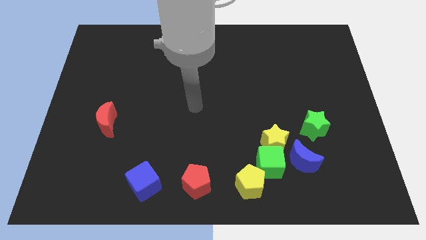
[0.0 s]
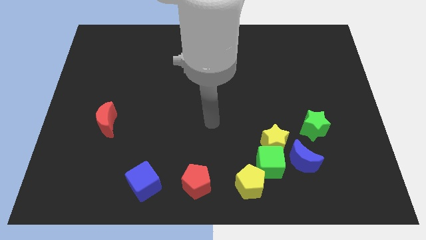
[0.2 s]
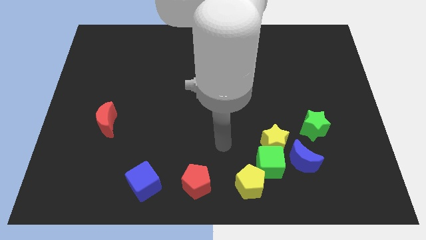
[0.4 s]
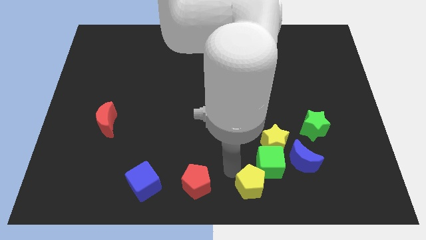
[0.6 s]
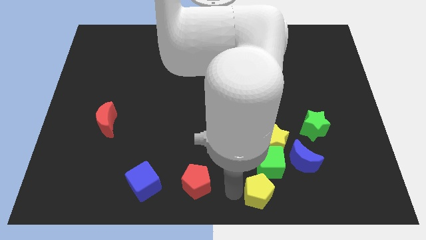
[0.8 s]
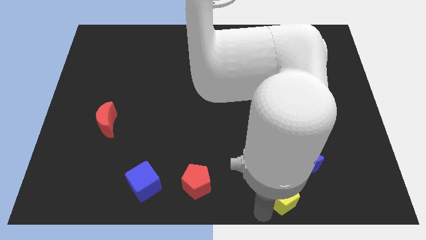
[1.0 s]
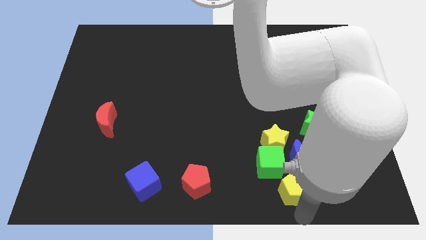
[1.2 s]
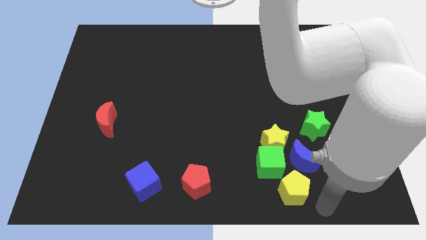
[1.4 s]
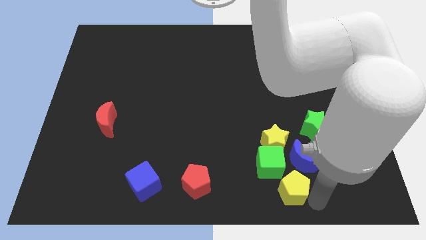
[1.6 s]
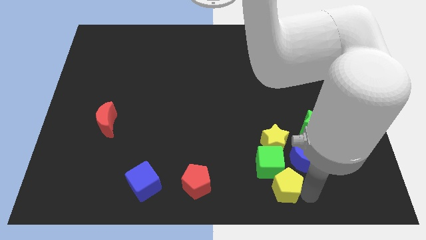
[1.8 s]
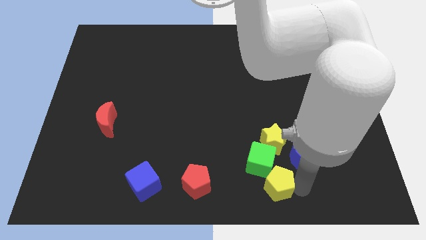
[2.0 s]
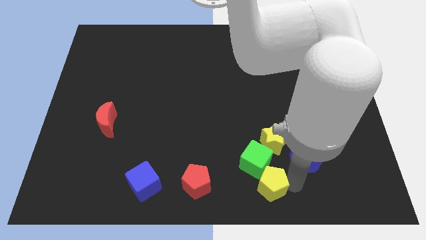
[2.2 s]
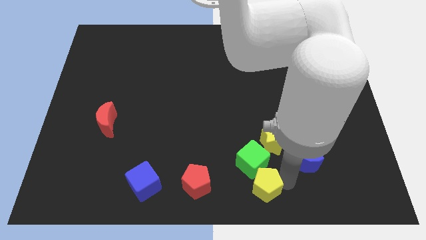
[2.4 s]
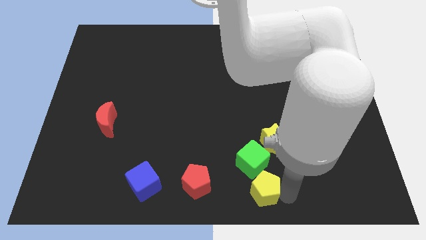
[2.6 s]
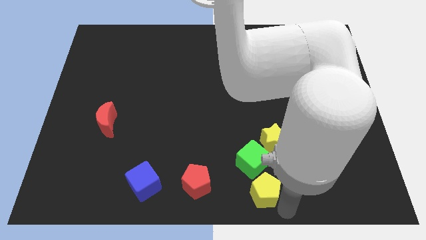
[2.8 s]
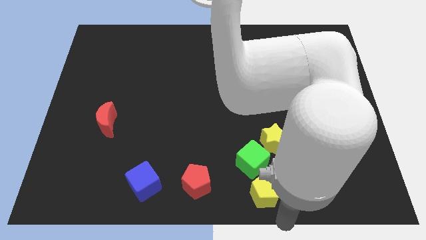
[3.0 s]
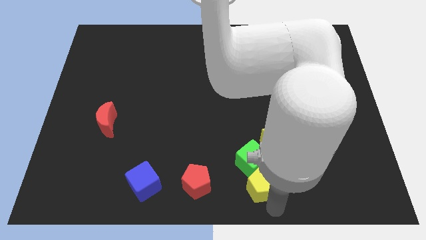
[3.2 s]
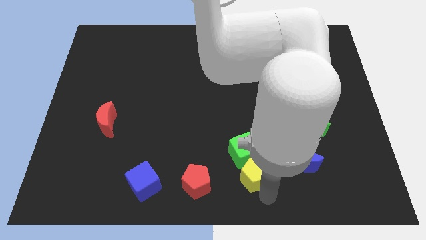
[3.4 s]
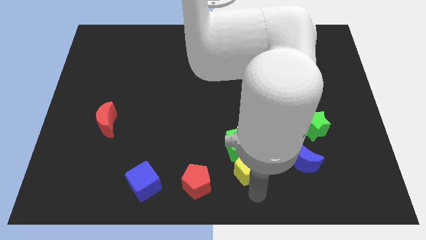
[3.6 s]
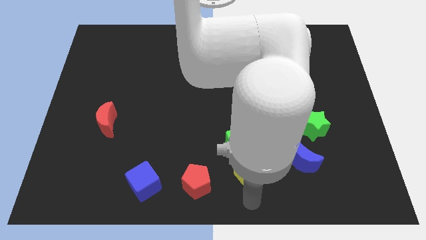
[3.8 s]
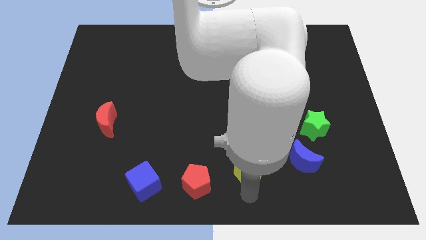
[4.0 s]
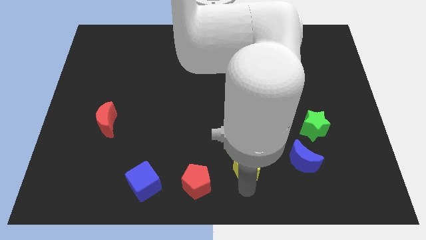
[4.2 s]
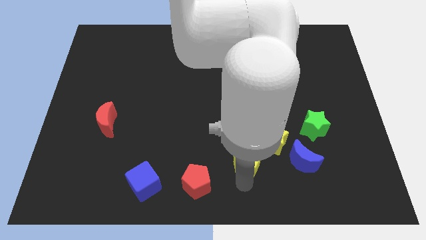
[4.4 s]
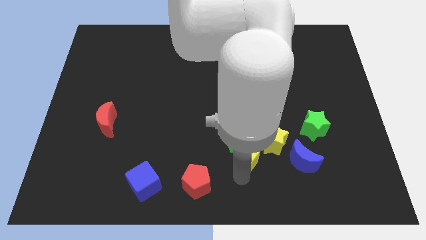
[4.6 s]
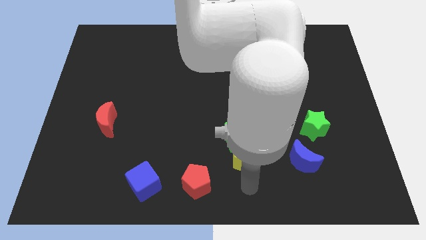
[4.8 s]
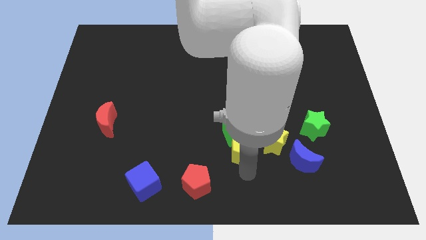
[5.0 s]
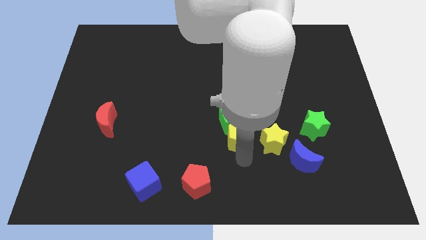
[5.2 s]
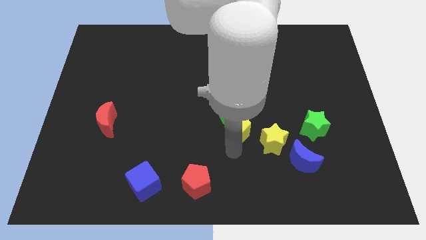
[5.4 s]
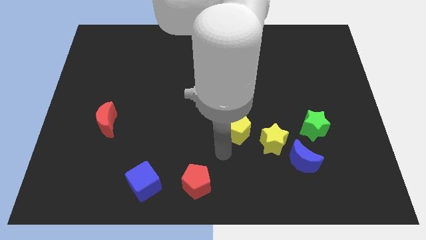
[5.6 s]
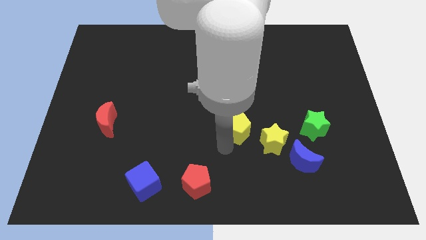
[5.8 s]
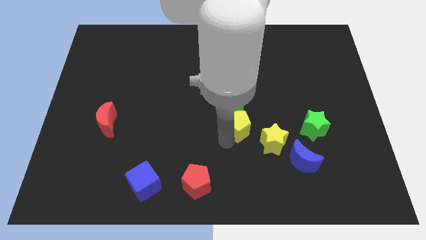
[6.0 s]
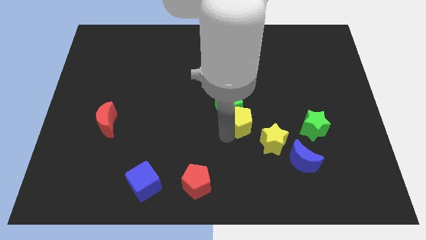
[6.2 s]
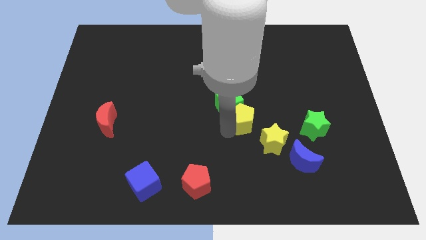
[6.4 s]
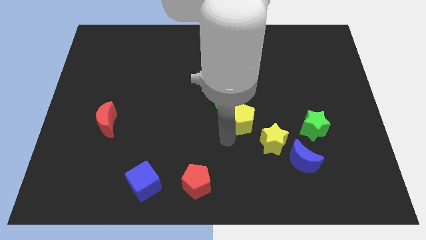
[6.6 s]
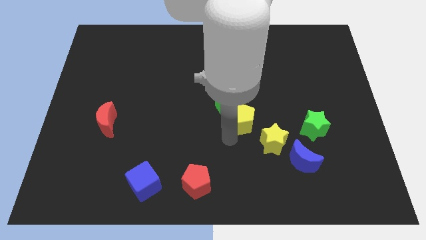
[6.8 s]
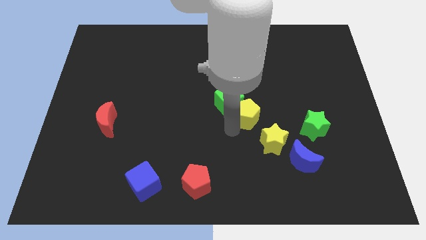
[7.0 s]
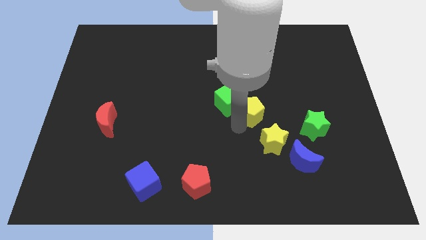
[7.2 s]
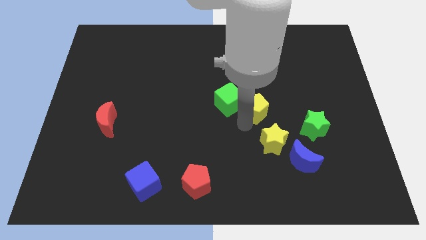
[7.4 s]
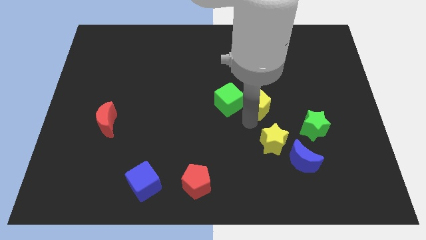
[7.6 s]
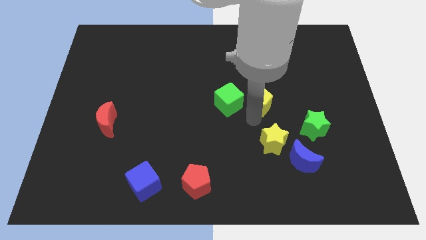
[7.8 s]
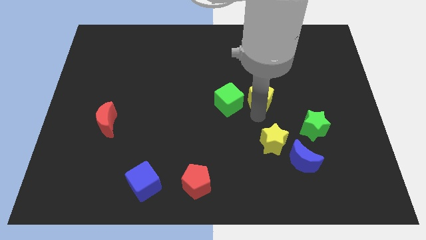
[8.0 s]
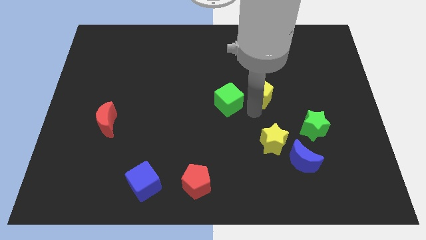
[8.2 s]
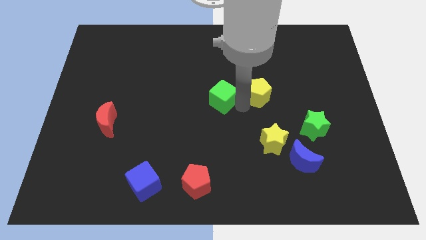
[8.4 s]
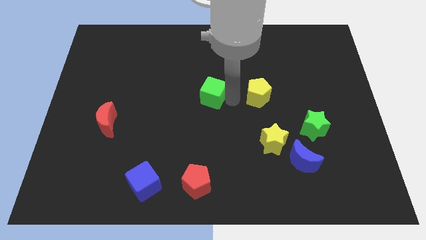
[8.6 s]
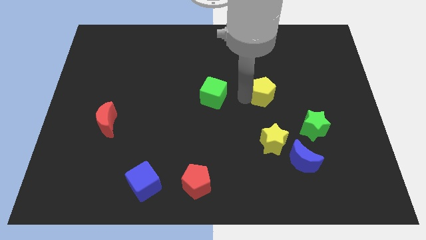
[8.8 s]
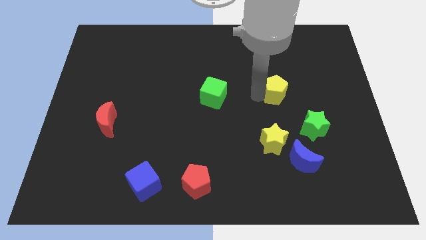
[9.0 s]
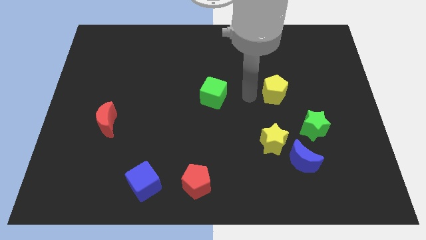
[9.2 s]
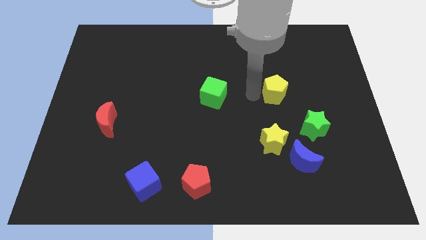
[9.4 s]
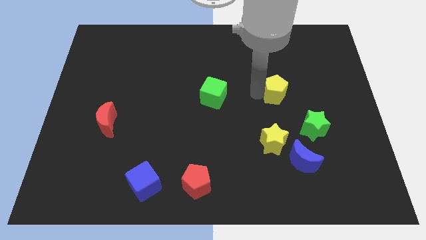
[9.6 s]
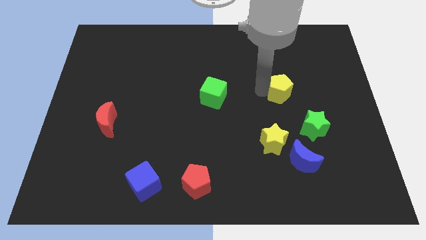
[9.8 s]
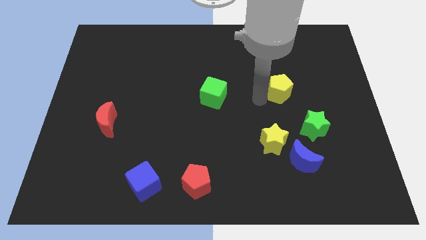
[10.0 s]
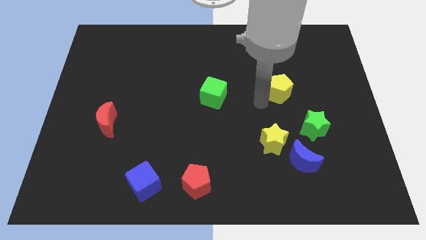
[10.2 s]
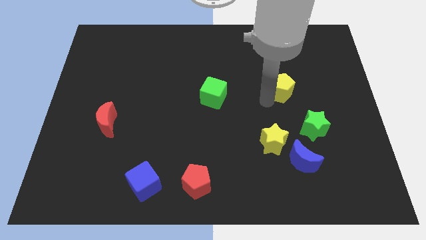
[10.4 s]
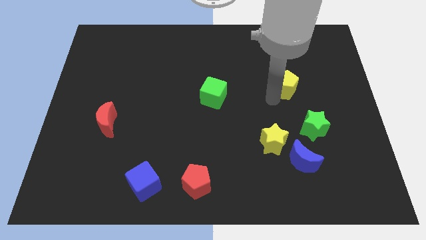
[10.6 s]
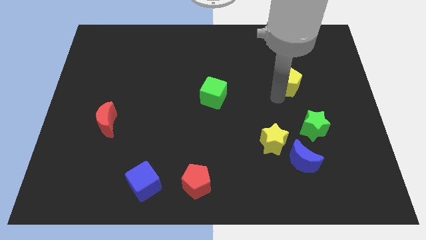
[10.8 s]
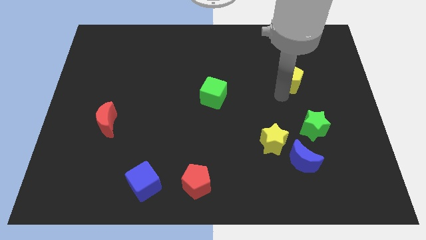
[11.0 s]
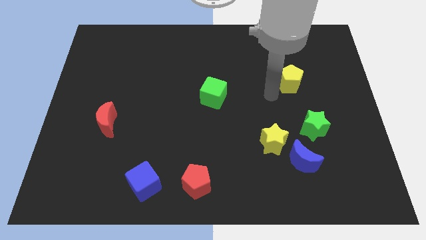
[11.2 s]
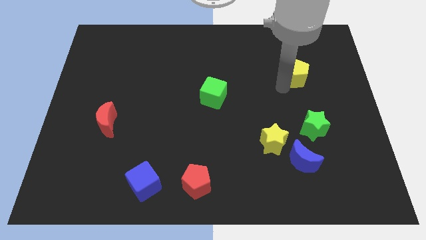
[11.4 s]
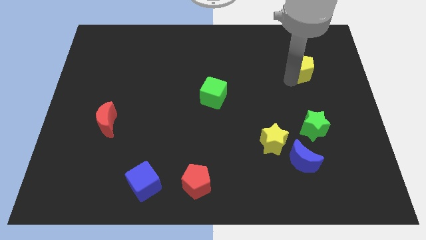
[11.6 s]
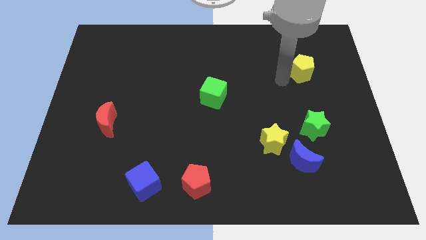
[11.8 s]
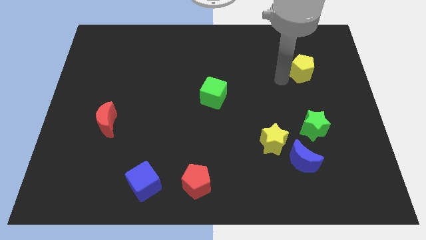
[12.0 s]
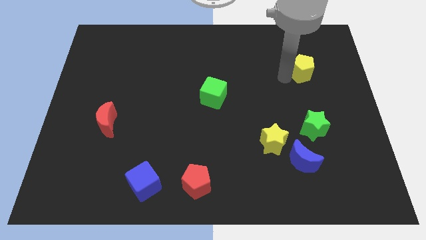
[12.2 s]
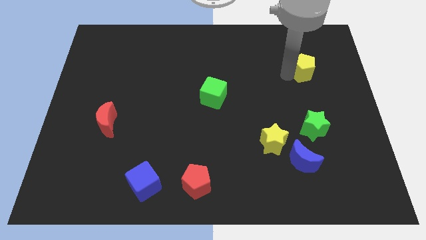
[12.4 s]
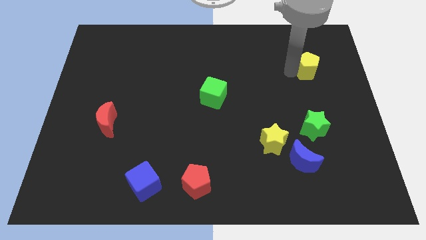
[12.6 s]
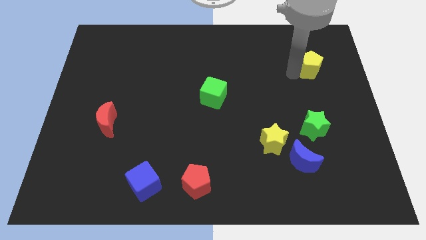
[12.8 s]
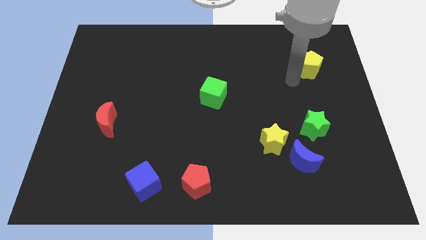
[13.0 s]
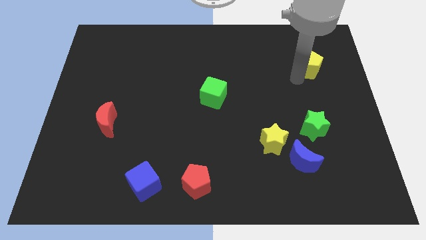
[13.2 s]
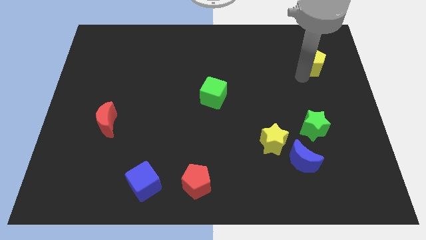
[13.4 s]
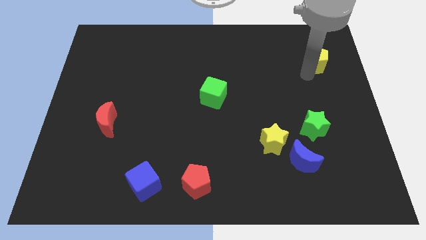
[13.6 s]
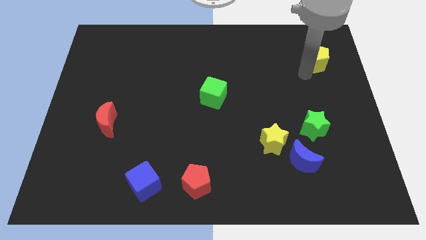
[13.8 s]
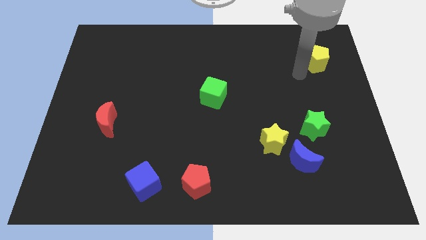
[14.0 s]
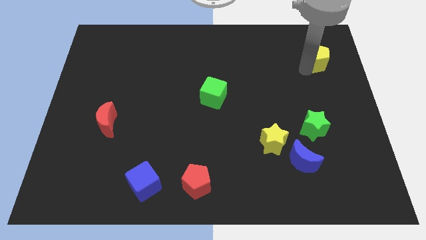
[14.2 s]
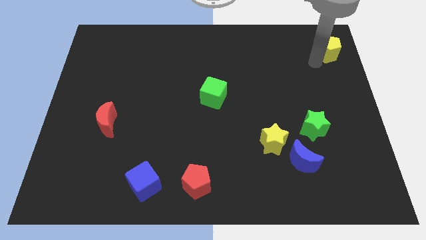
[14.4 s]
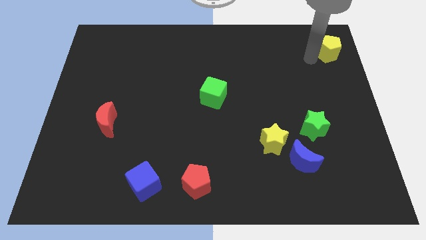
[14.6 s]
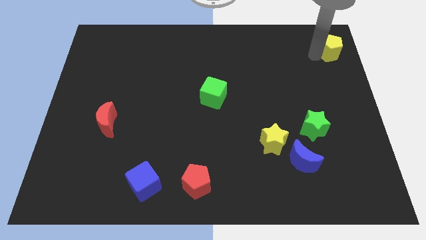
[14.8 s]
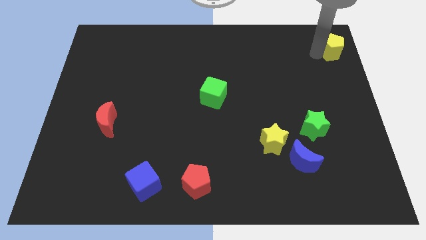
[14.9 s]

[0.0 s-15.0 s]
slide the yellow pentagon to the top right of the board
